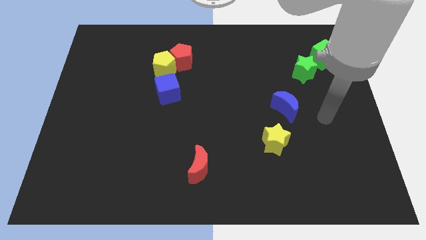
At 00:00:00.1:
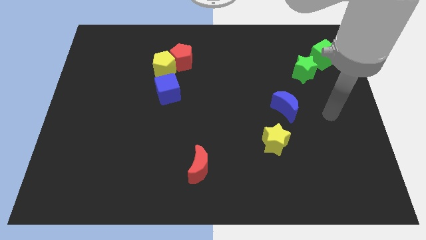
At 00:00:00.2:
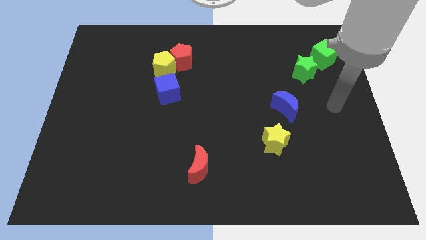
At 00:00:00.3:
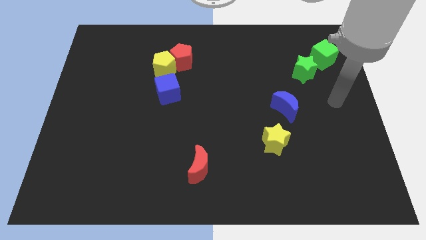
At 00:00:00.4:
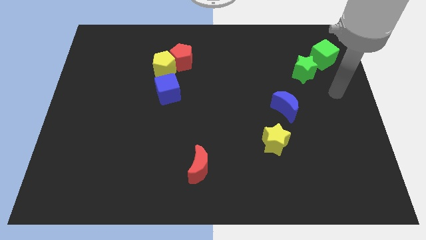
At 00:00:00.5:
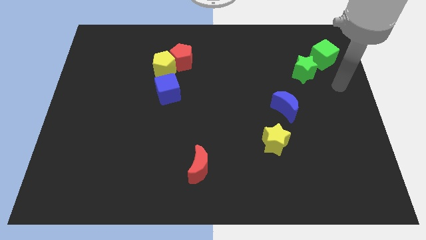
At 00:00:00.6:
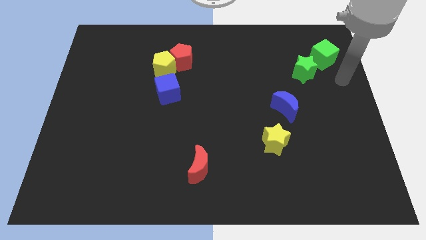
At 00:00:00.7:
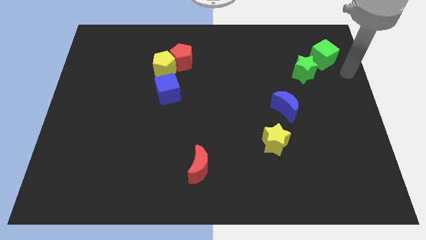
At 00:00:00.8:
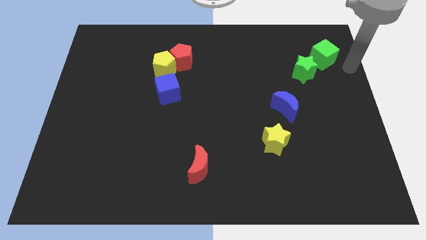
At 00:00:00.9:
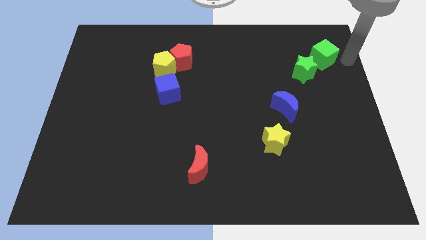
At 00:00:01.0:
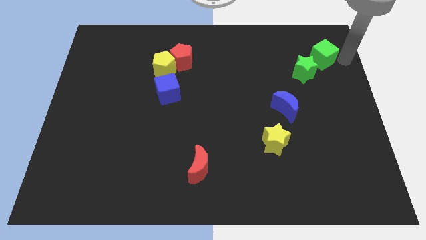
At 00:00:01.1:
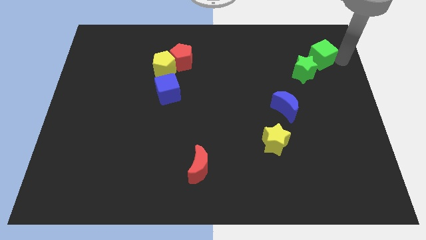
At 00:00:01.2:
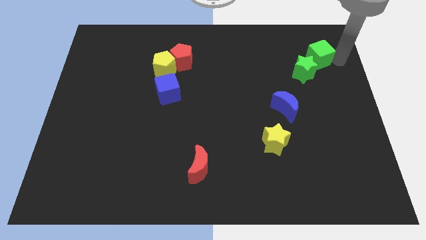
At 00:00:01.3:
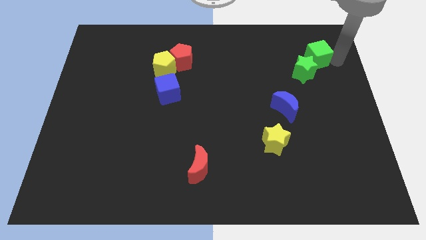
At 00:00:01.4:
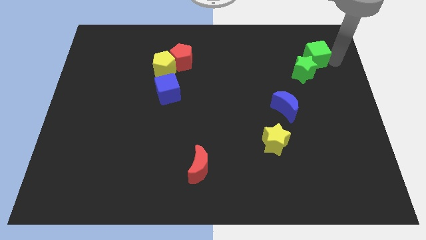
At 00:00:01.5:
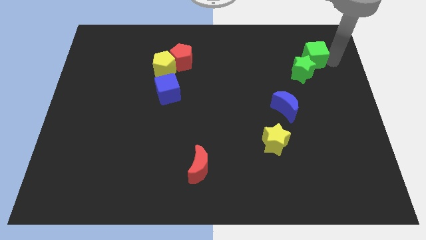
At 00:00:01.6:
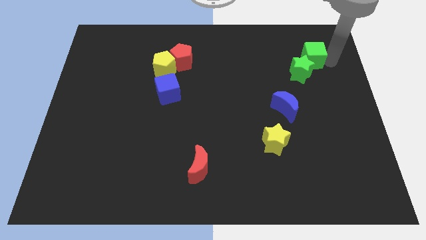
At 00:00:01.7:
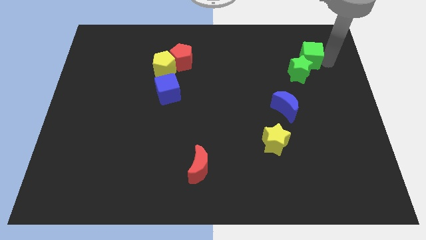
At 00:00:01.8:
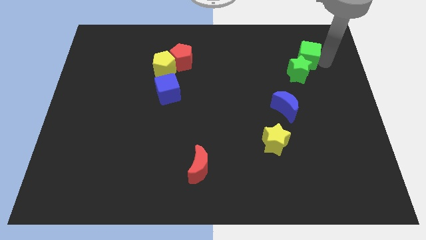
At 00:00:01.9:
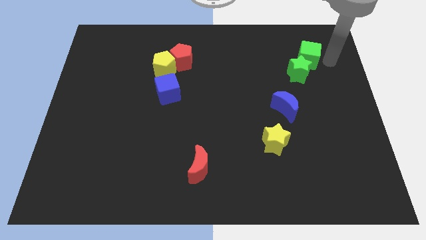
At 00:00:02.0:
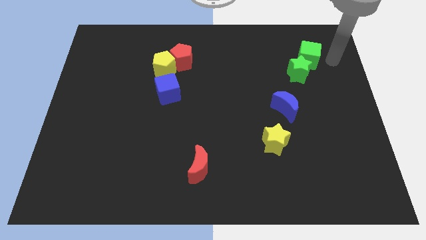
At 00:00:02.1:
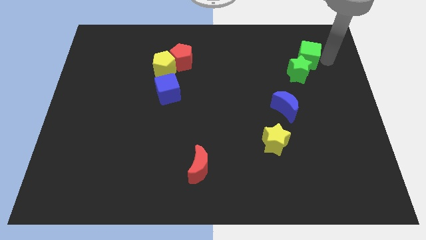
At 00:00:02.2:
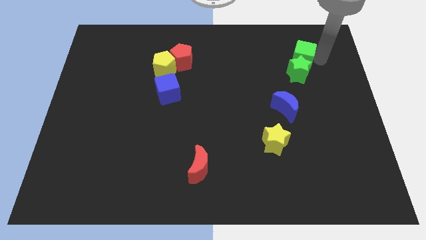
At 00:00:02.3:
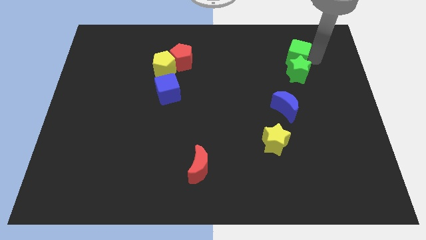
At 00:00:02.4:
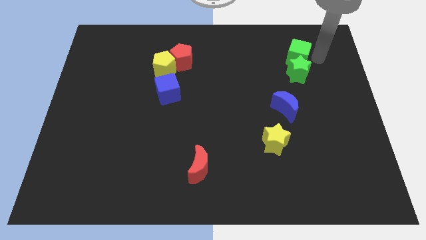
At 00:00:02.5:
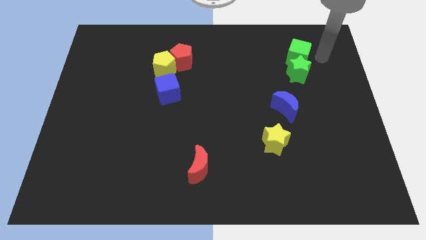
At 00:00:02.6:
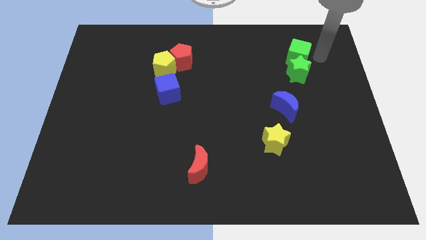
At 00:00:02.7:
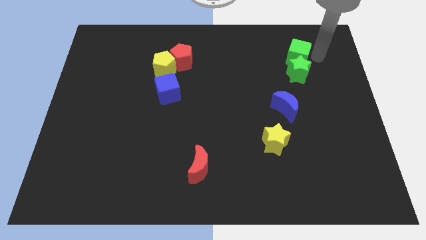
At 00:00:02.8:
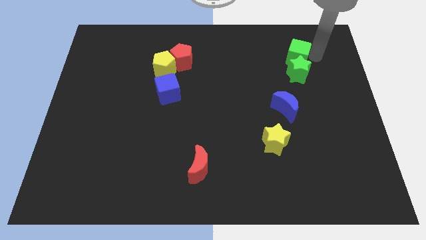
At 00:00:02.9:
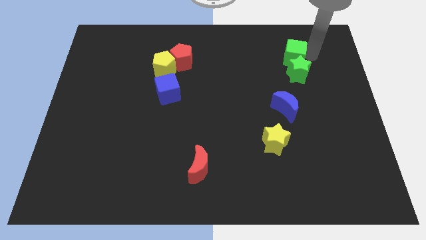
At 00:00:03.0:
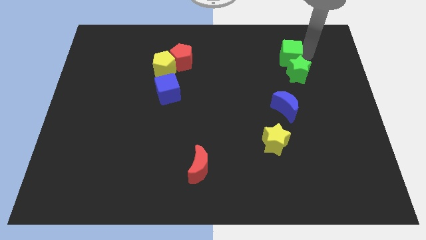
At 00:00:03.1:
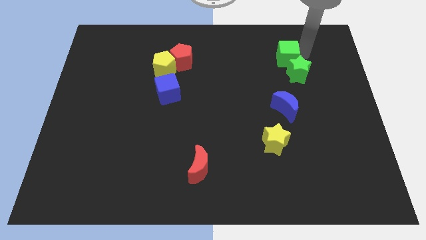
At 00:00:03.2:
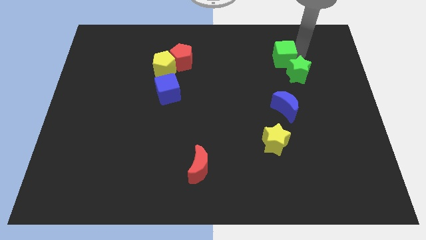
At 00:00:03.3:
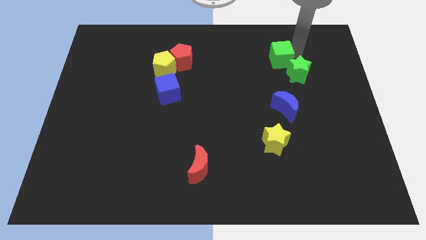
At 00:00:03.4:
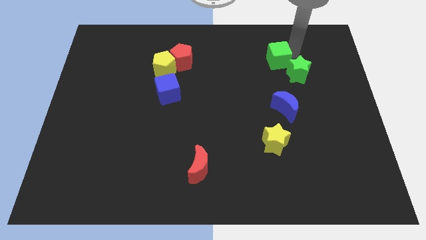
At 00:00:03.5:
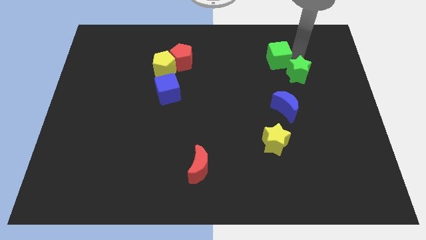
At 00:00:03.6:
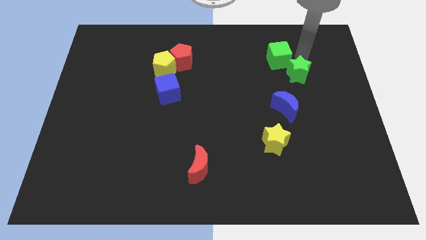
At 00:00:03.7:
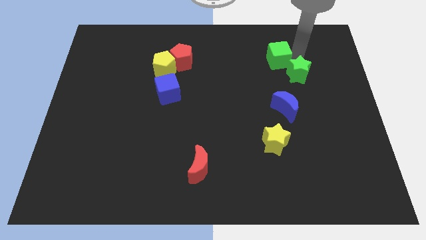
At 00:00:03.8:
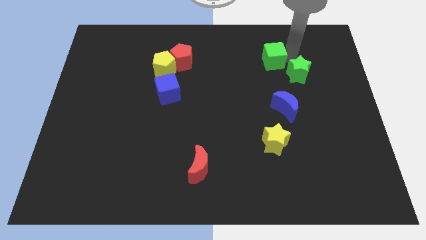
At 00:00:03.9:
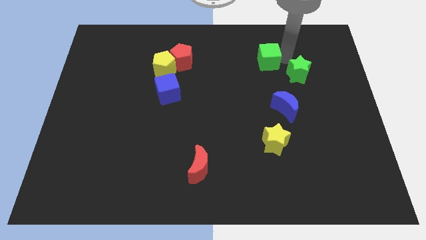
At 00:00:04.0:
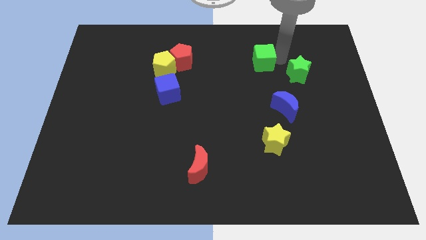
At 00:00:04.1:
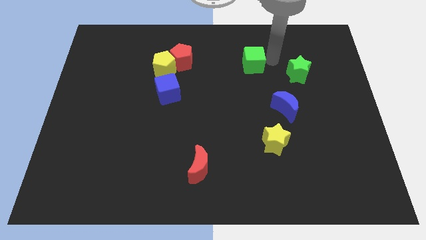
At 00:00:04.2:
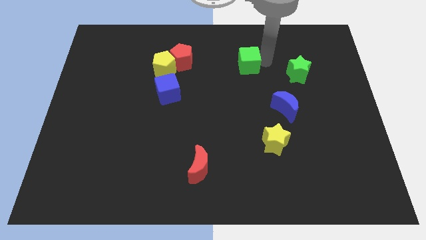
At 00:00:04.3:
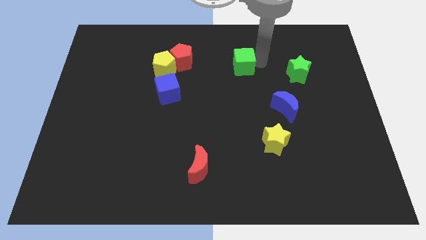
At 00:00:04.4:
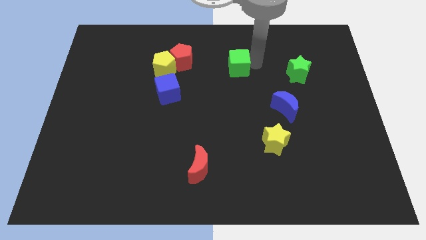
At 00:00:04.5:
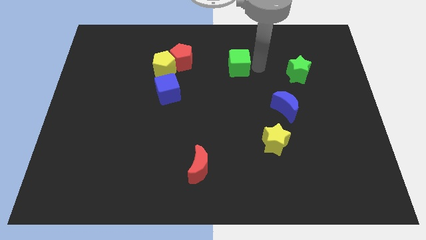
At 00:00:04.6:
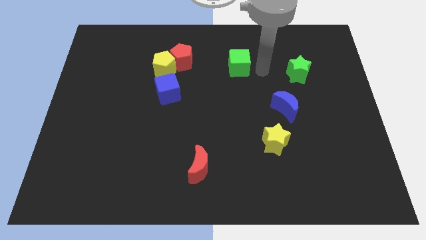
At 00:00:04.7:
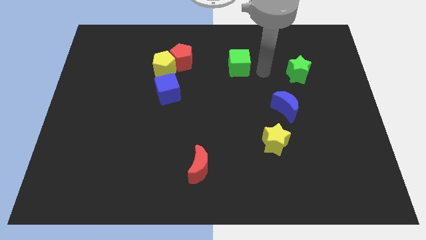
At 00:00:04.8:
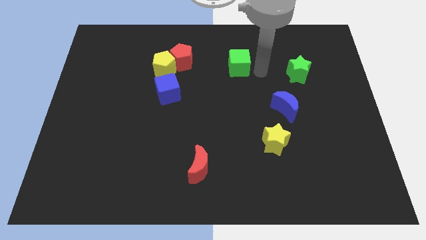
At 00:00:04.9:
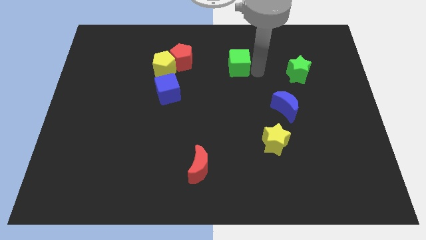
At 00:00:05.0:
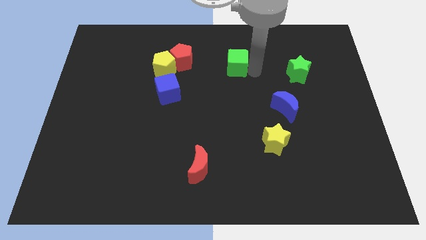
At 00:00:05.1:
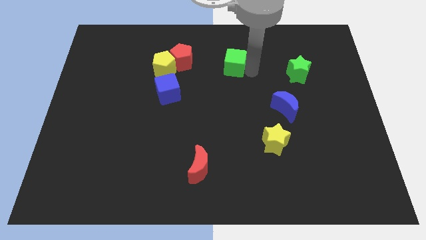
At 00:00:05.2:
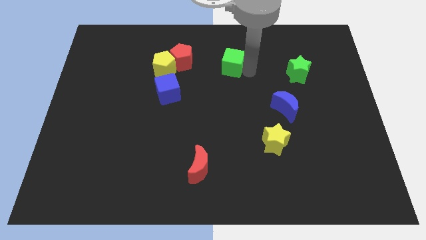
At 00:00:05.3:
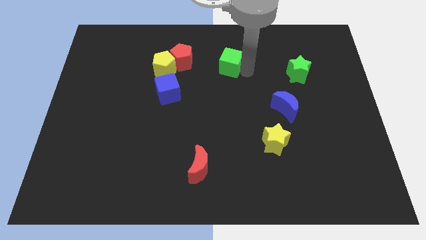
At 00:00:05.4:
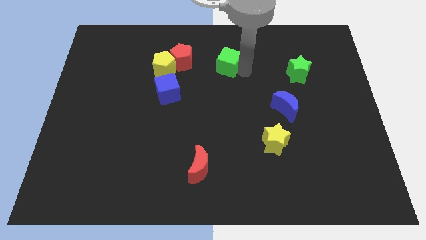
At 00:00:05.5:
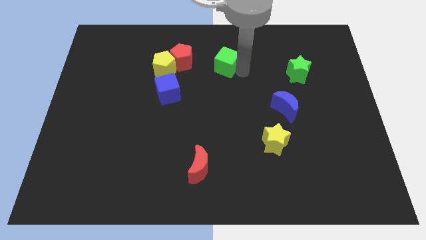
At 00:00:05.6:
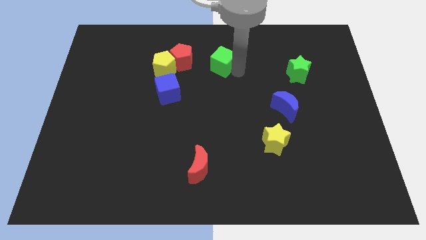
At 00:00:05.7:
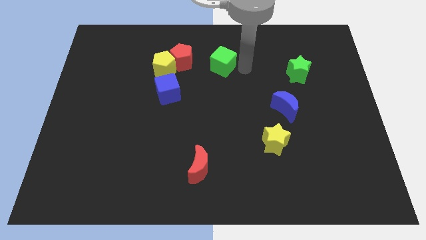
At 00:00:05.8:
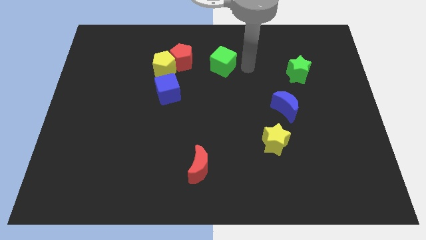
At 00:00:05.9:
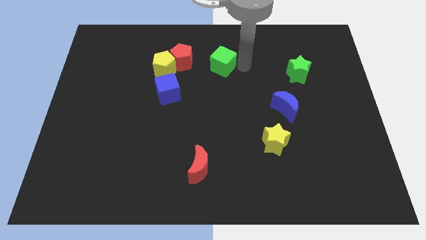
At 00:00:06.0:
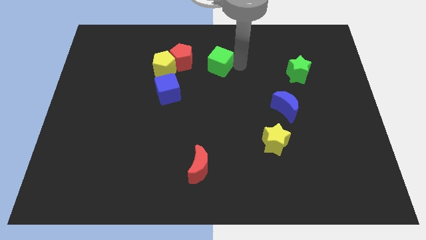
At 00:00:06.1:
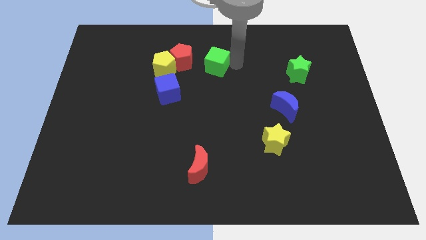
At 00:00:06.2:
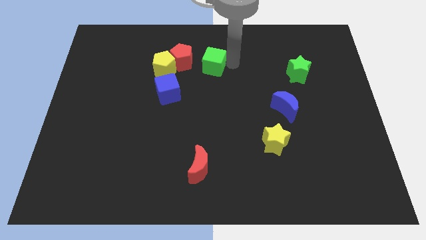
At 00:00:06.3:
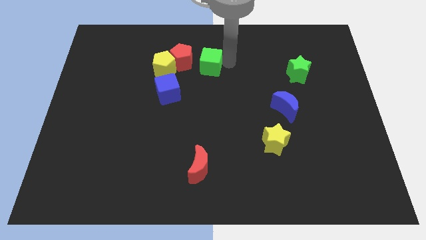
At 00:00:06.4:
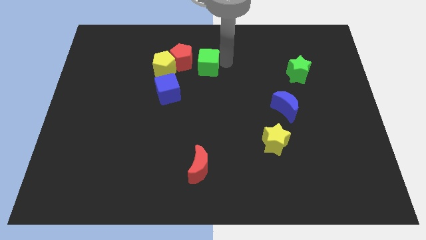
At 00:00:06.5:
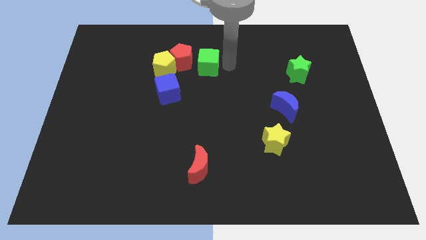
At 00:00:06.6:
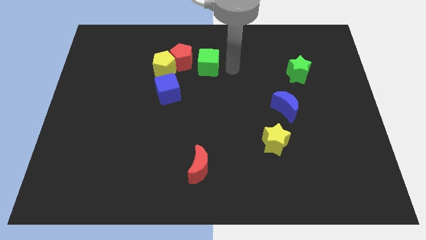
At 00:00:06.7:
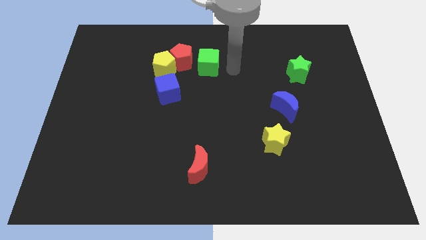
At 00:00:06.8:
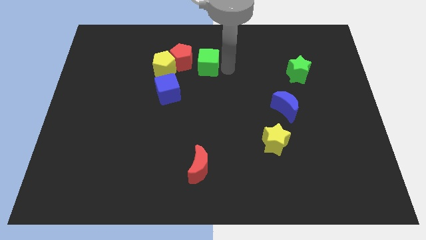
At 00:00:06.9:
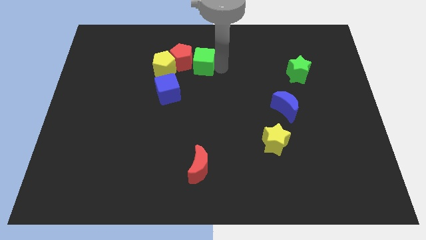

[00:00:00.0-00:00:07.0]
move the green cube towards the red pentagon

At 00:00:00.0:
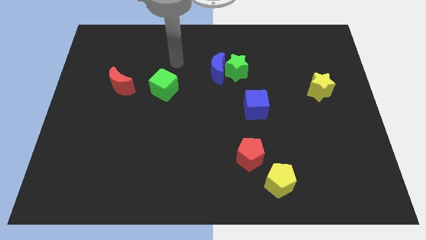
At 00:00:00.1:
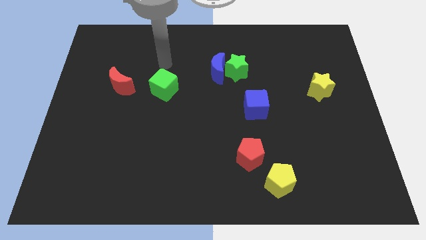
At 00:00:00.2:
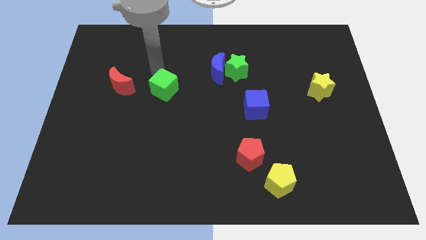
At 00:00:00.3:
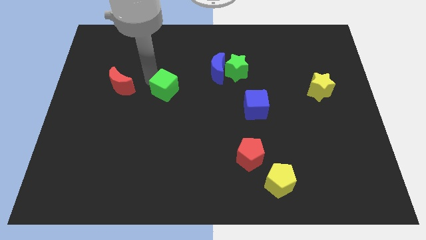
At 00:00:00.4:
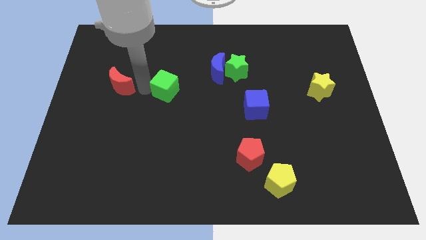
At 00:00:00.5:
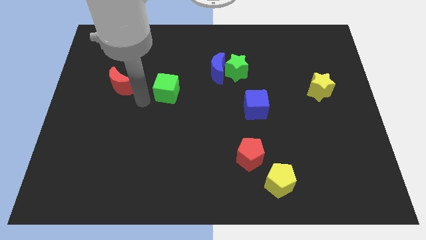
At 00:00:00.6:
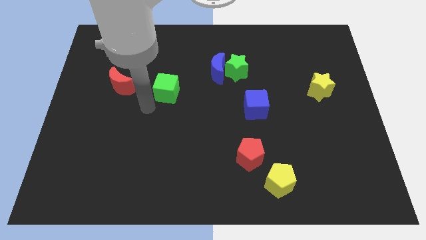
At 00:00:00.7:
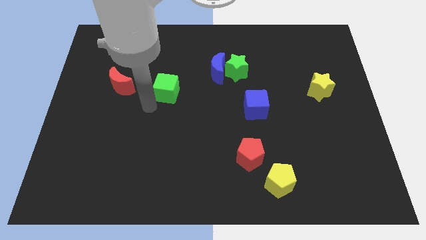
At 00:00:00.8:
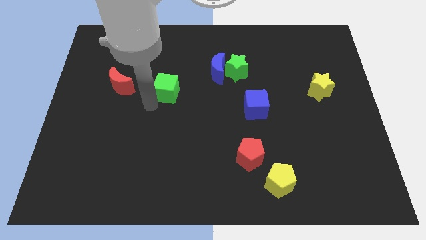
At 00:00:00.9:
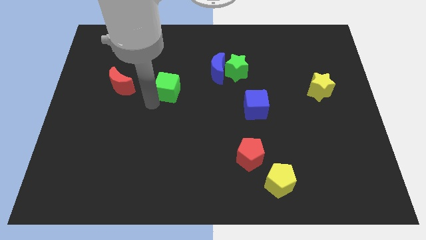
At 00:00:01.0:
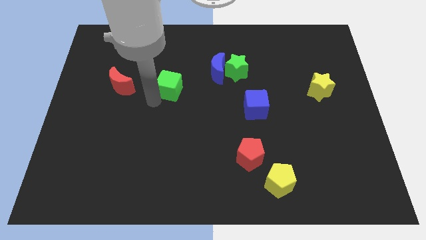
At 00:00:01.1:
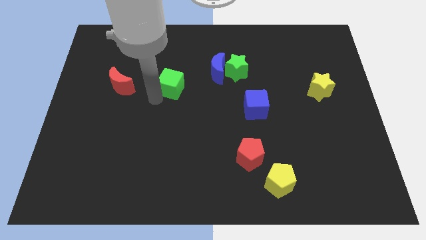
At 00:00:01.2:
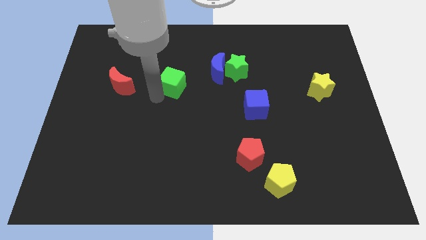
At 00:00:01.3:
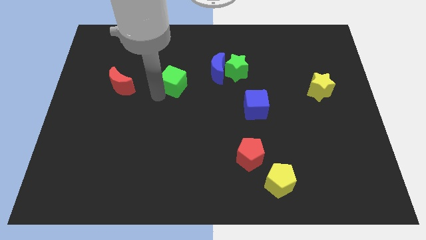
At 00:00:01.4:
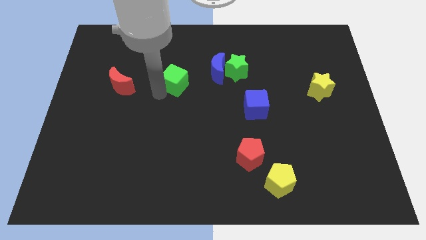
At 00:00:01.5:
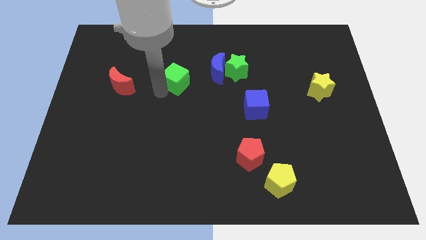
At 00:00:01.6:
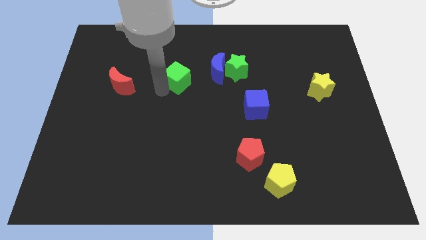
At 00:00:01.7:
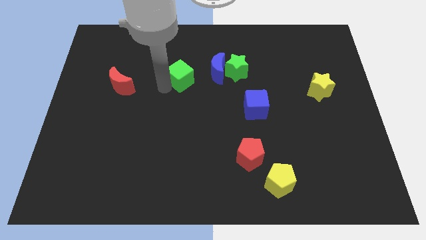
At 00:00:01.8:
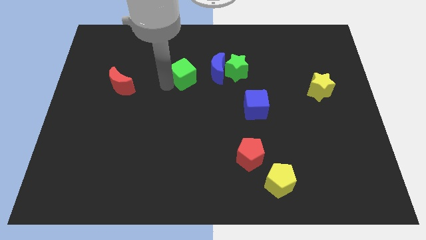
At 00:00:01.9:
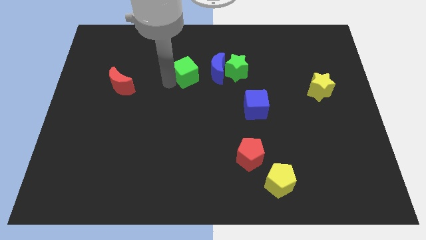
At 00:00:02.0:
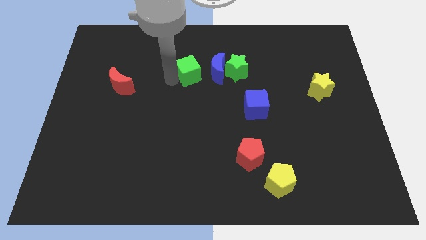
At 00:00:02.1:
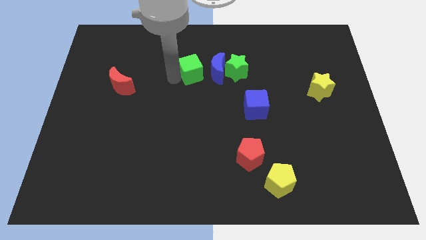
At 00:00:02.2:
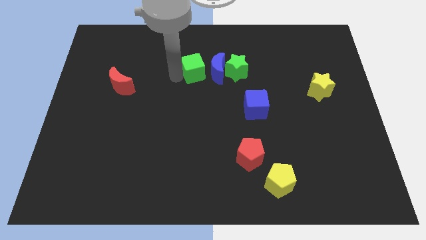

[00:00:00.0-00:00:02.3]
move the green cube next to the blue moon
